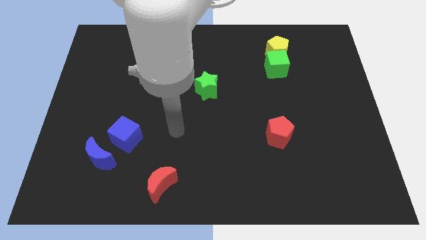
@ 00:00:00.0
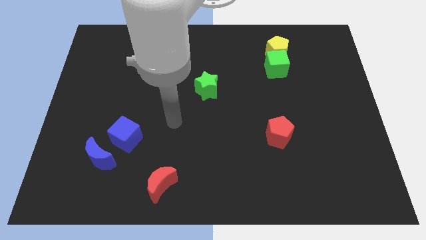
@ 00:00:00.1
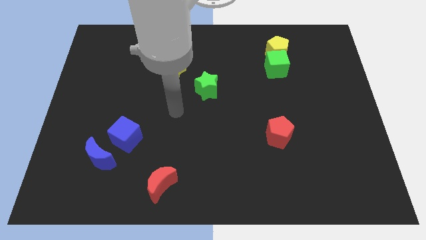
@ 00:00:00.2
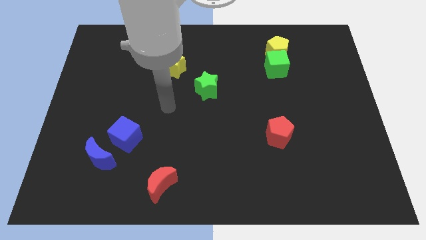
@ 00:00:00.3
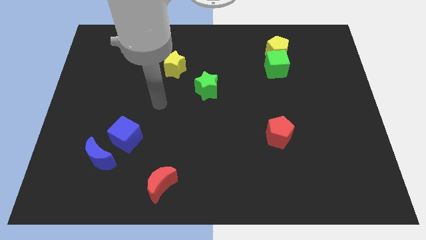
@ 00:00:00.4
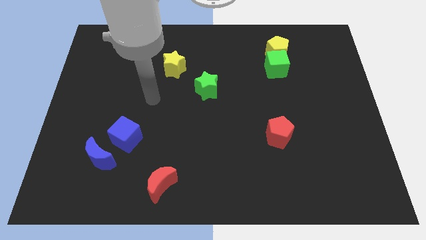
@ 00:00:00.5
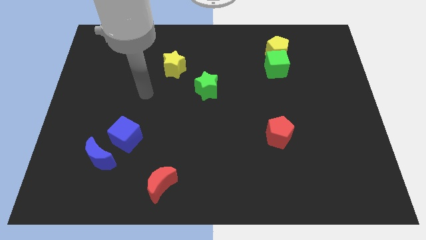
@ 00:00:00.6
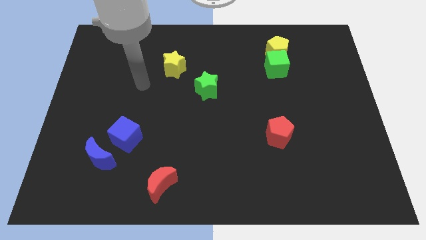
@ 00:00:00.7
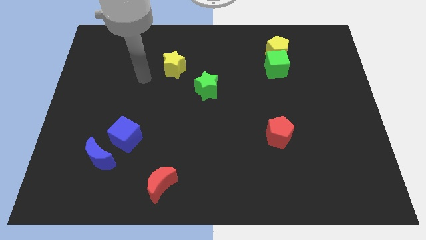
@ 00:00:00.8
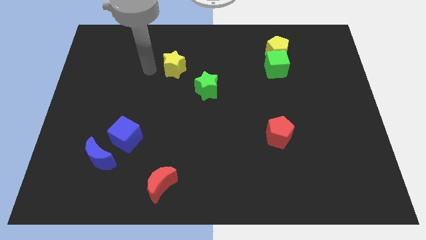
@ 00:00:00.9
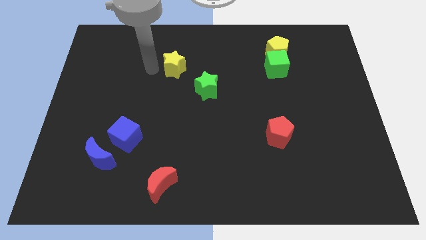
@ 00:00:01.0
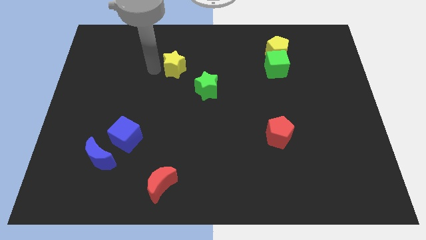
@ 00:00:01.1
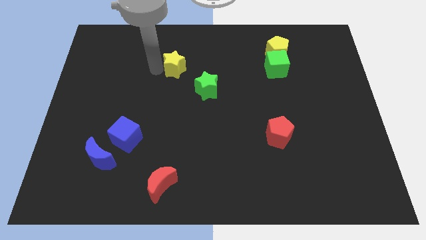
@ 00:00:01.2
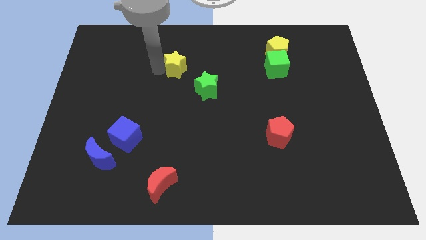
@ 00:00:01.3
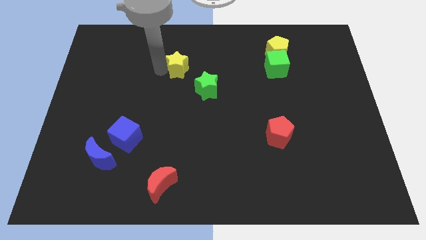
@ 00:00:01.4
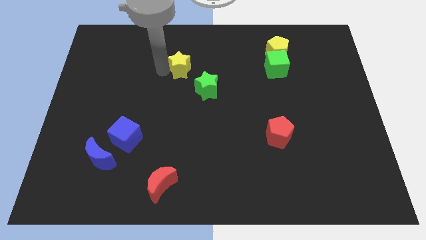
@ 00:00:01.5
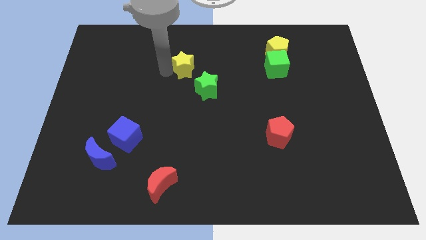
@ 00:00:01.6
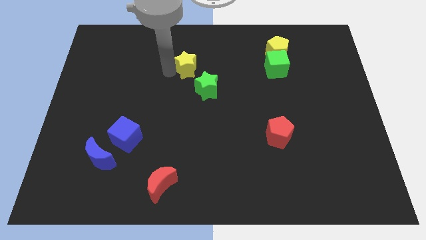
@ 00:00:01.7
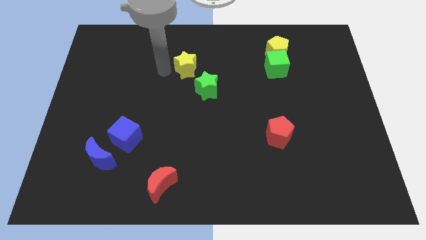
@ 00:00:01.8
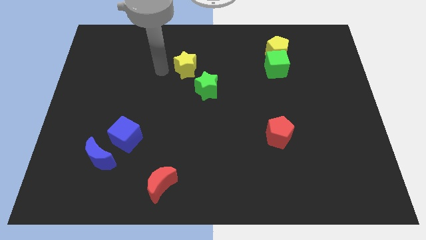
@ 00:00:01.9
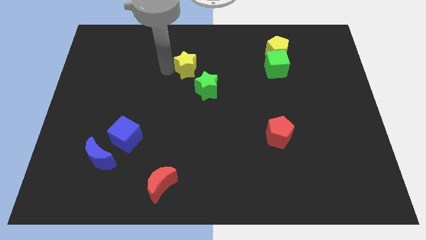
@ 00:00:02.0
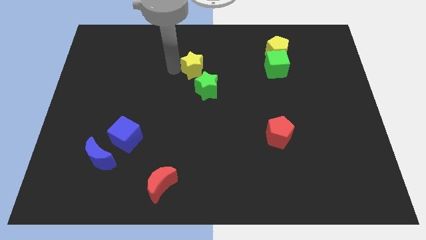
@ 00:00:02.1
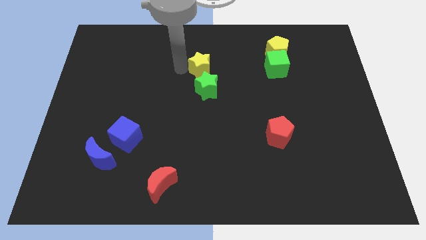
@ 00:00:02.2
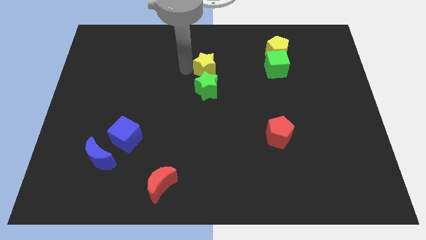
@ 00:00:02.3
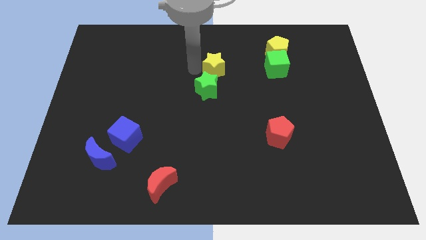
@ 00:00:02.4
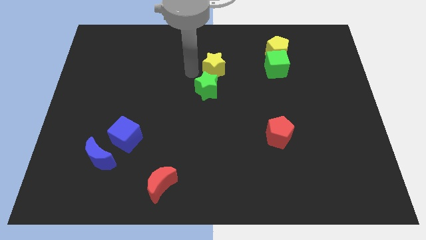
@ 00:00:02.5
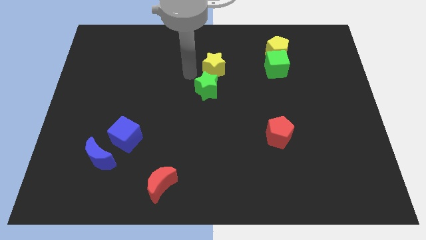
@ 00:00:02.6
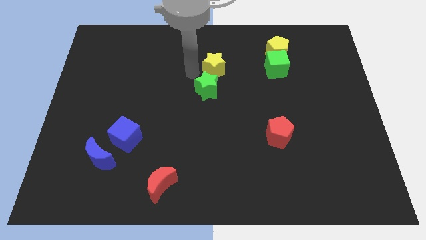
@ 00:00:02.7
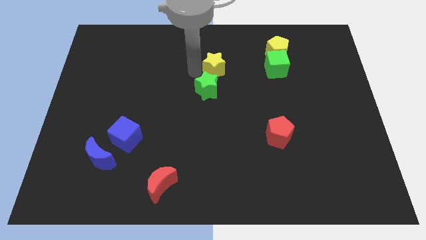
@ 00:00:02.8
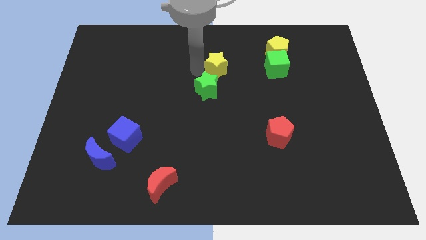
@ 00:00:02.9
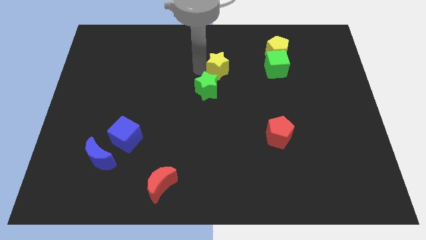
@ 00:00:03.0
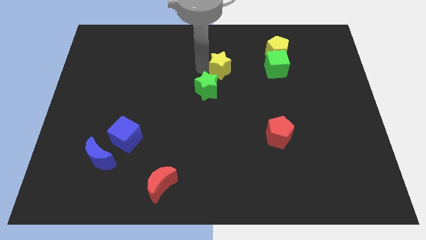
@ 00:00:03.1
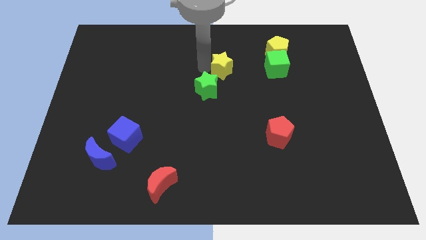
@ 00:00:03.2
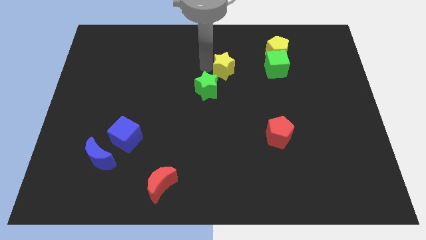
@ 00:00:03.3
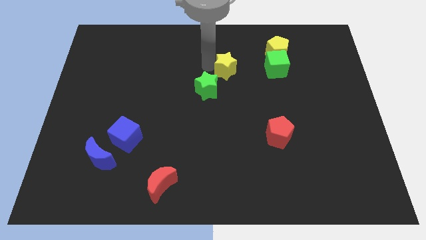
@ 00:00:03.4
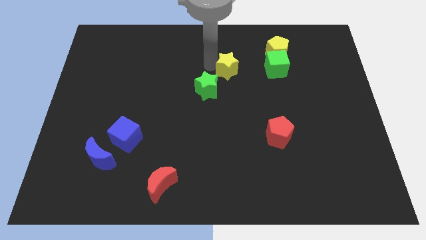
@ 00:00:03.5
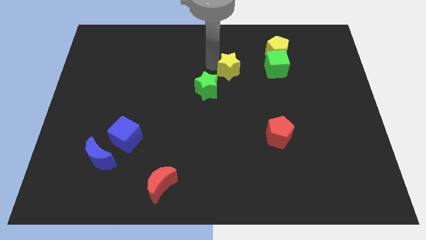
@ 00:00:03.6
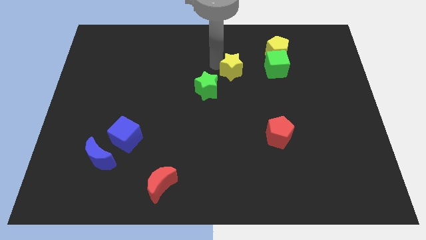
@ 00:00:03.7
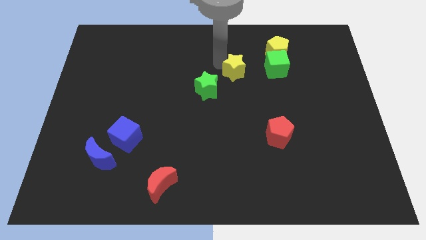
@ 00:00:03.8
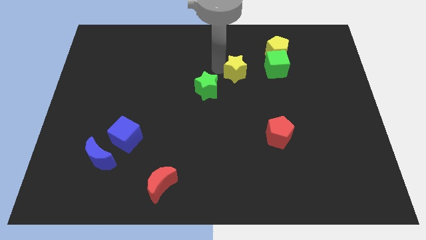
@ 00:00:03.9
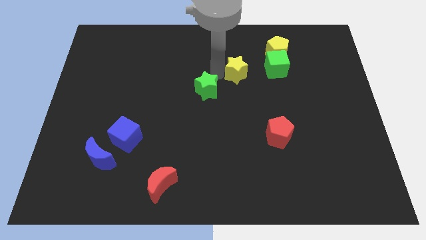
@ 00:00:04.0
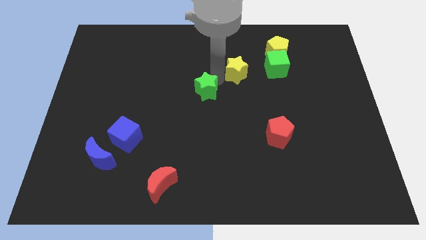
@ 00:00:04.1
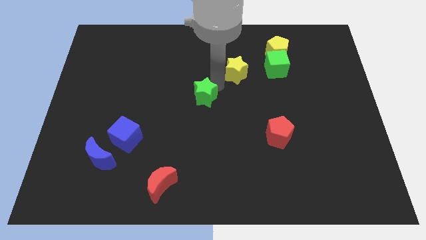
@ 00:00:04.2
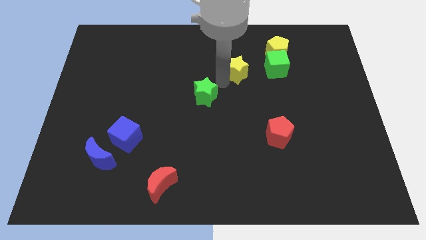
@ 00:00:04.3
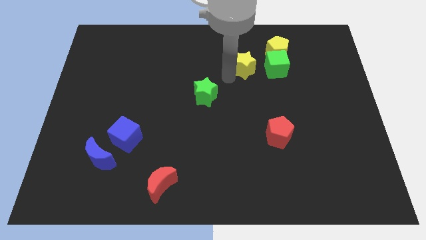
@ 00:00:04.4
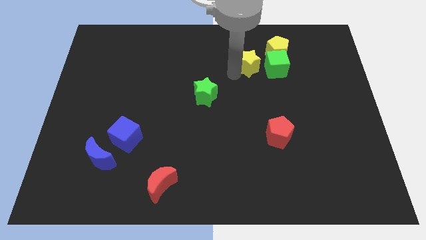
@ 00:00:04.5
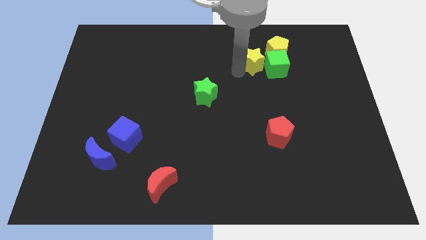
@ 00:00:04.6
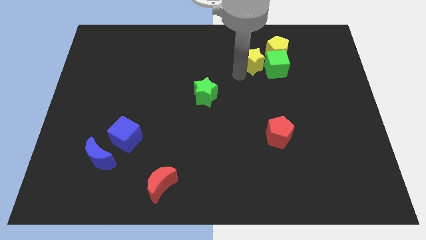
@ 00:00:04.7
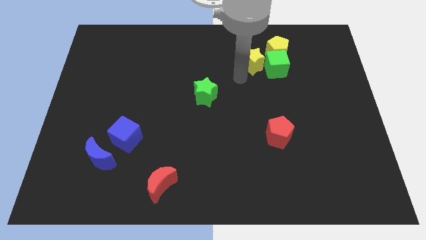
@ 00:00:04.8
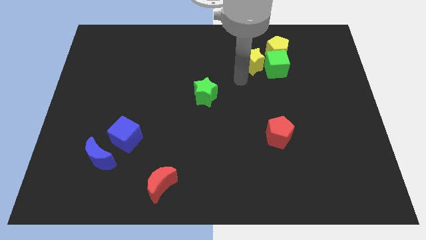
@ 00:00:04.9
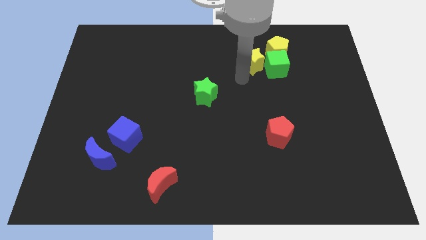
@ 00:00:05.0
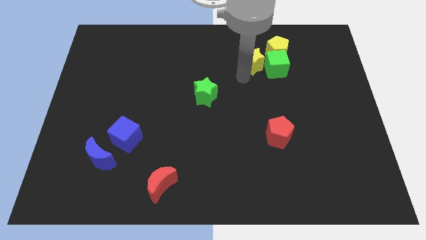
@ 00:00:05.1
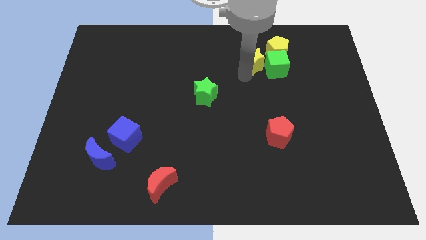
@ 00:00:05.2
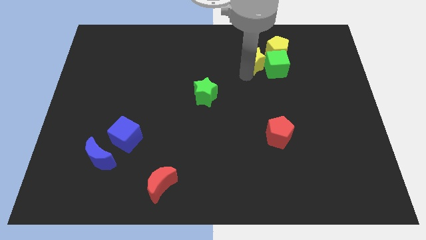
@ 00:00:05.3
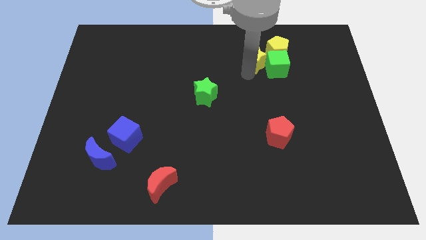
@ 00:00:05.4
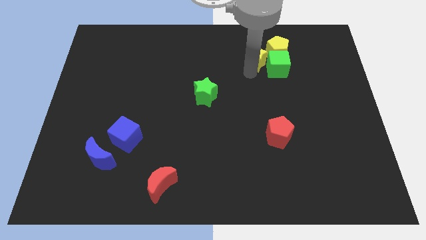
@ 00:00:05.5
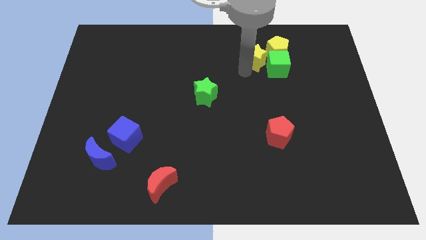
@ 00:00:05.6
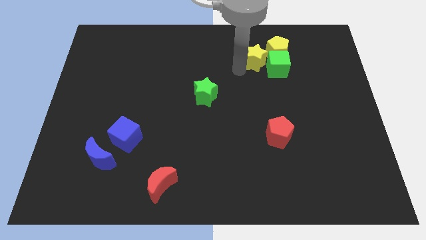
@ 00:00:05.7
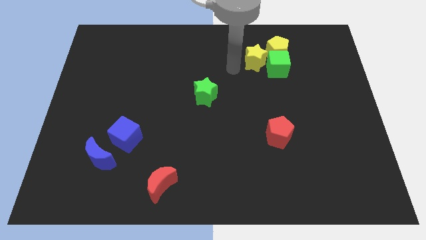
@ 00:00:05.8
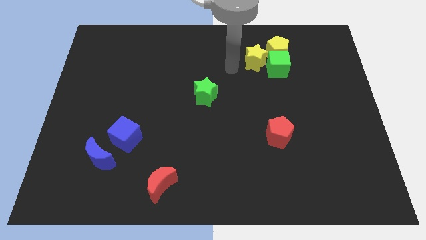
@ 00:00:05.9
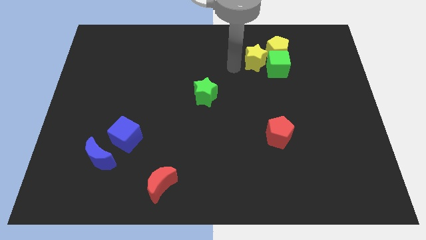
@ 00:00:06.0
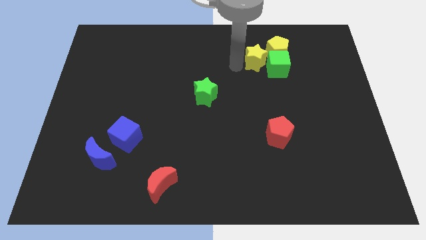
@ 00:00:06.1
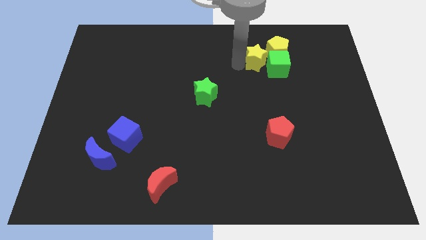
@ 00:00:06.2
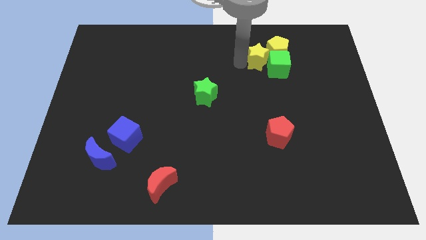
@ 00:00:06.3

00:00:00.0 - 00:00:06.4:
put the yellow star towards the yellow pentagon
